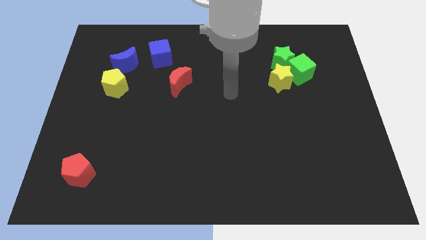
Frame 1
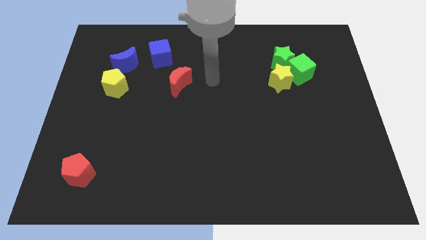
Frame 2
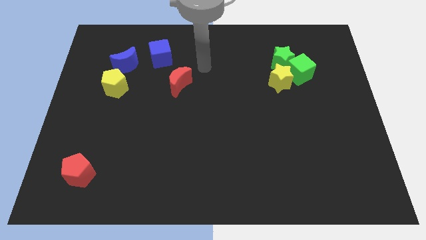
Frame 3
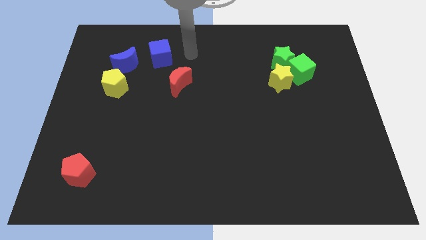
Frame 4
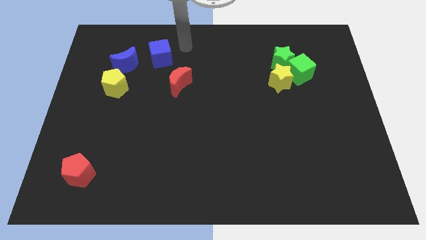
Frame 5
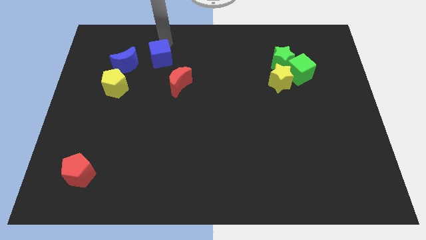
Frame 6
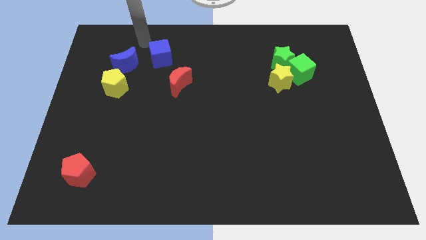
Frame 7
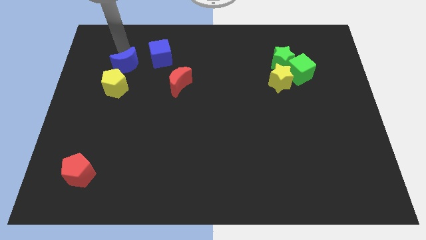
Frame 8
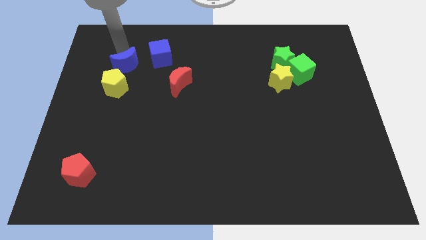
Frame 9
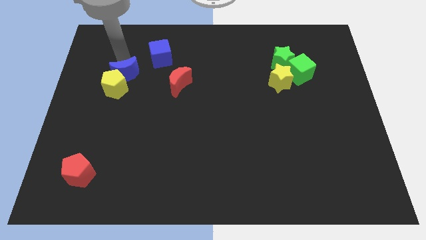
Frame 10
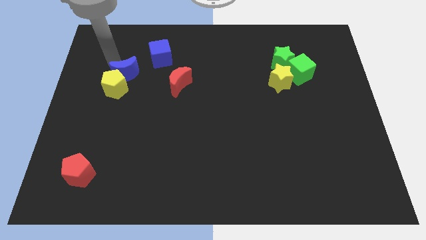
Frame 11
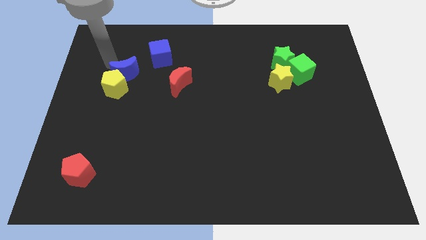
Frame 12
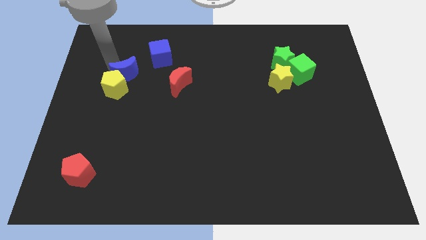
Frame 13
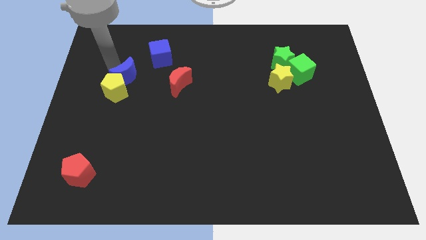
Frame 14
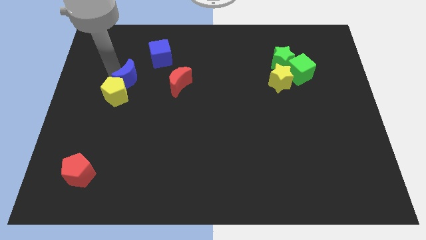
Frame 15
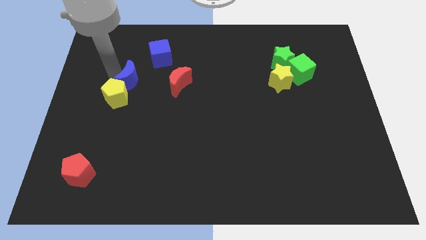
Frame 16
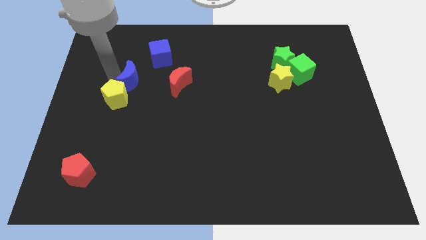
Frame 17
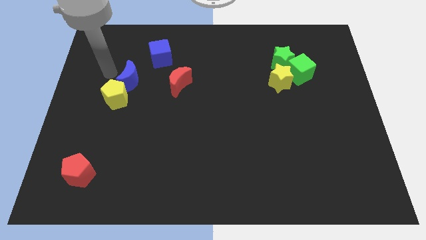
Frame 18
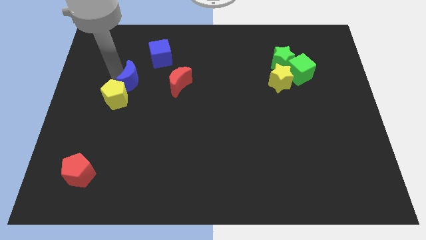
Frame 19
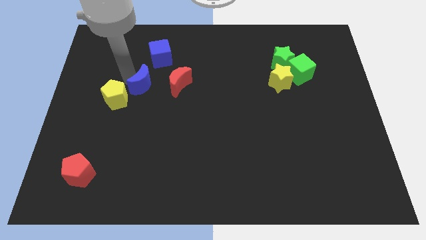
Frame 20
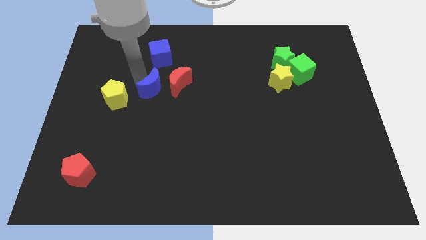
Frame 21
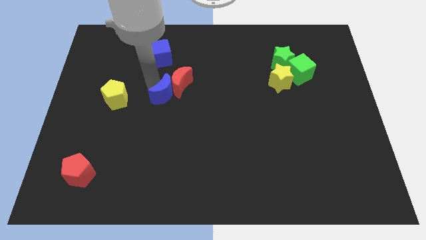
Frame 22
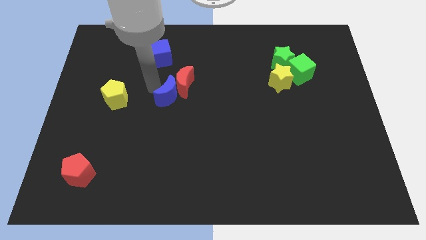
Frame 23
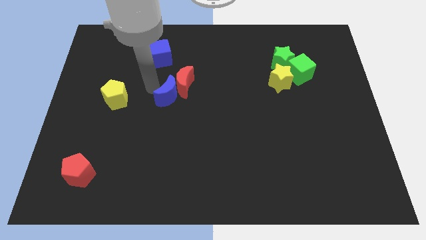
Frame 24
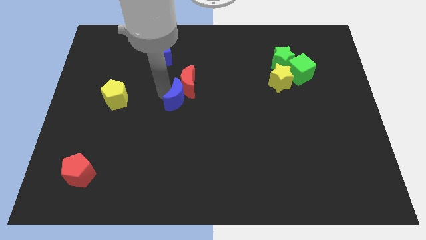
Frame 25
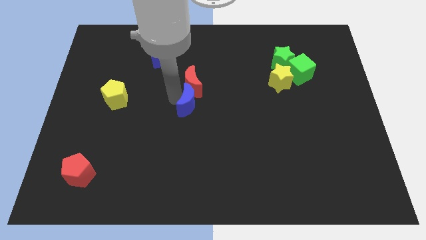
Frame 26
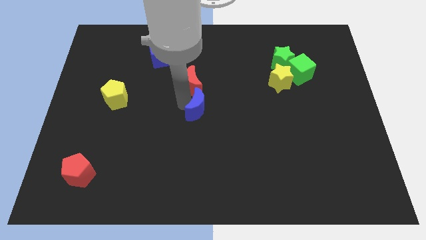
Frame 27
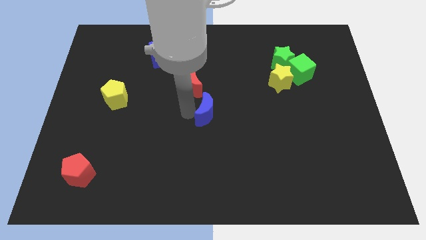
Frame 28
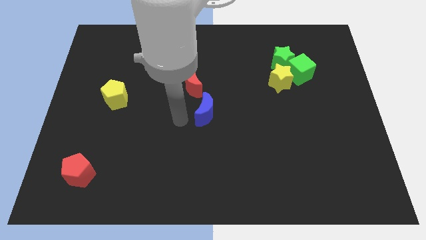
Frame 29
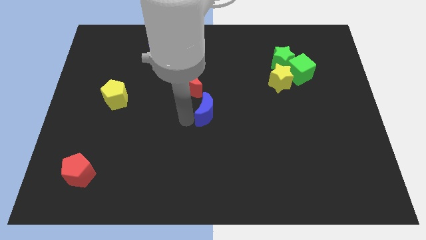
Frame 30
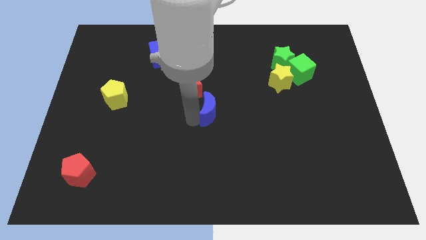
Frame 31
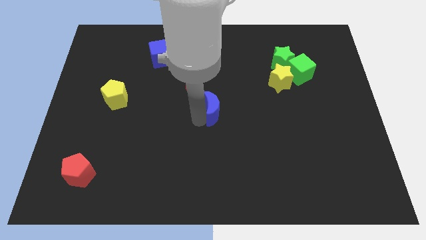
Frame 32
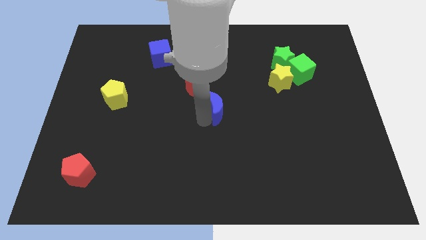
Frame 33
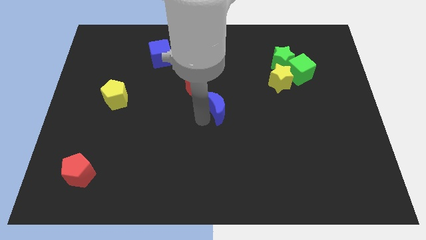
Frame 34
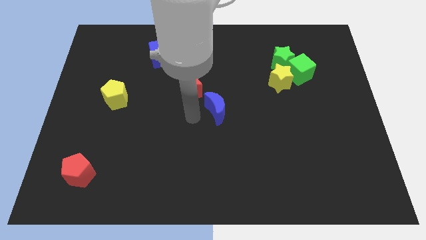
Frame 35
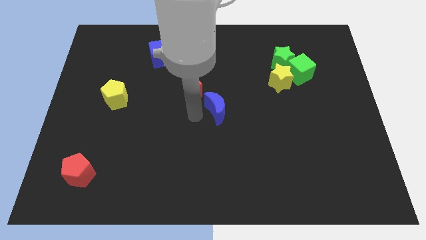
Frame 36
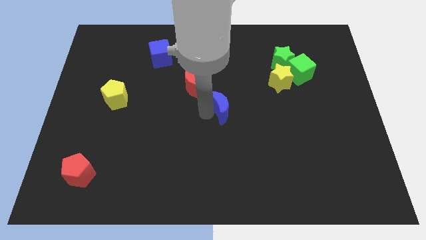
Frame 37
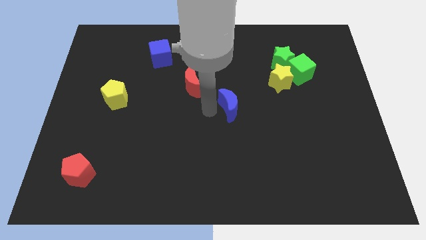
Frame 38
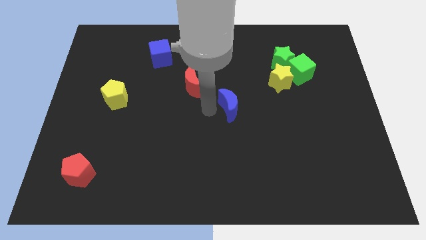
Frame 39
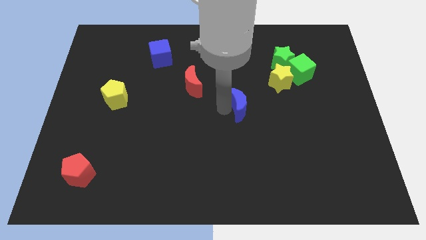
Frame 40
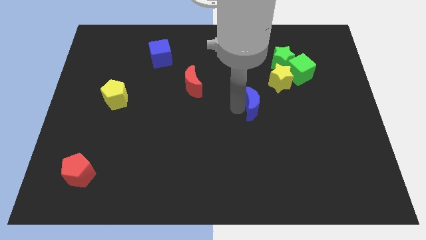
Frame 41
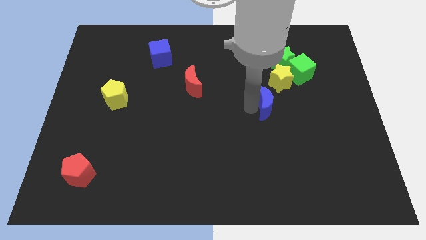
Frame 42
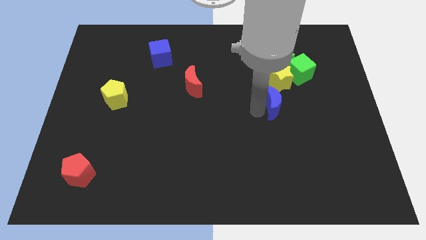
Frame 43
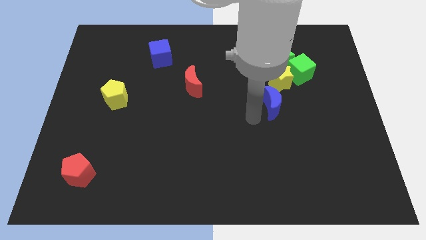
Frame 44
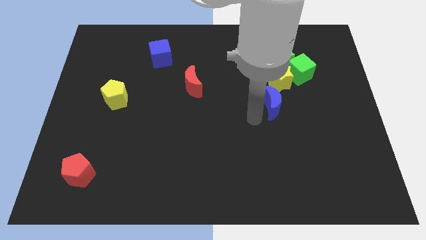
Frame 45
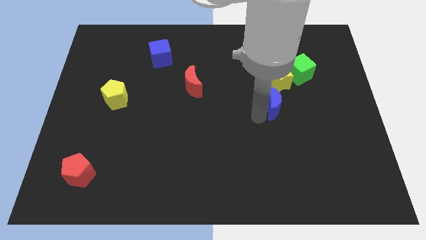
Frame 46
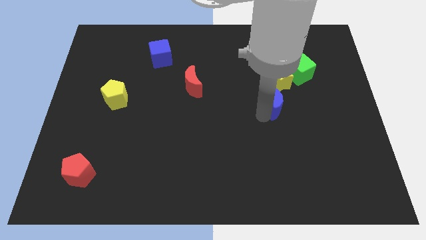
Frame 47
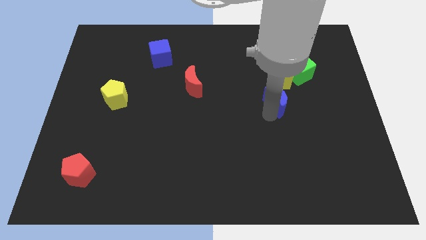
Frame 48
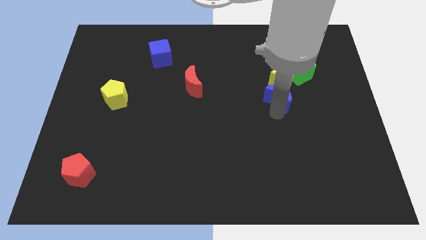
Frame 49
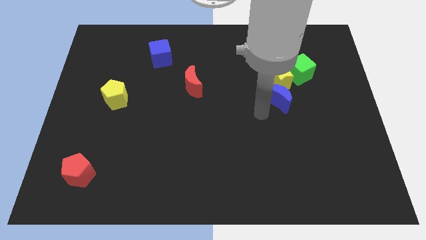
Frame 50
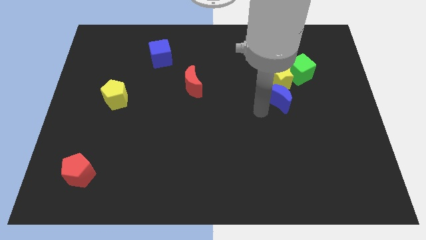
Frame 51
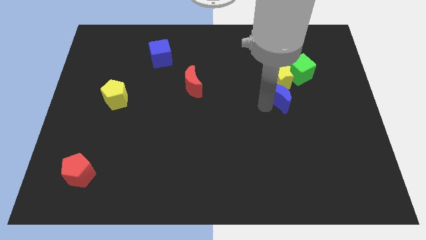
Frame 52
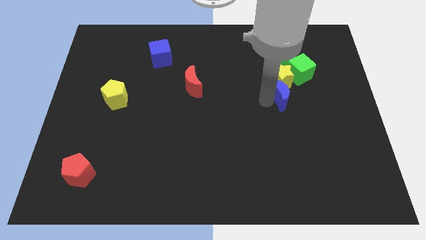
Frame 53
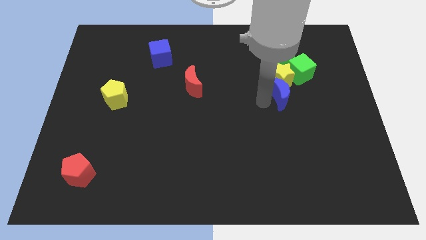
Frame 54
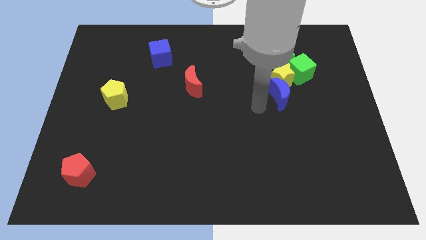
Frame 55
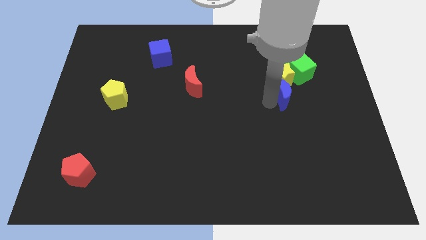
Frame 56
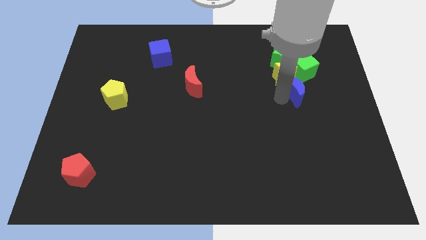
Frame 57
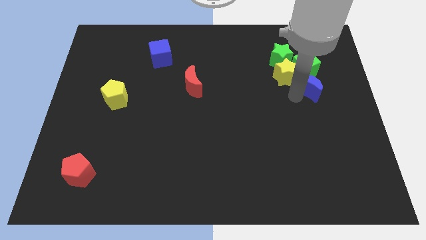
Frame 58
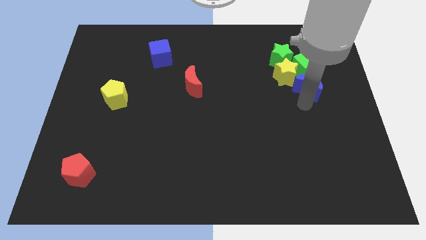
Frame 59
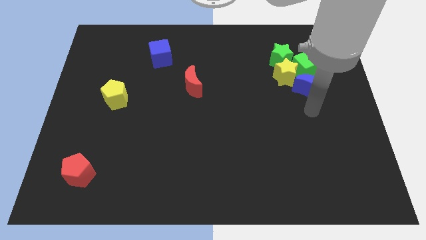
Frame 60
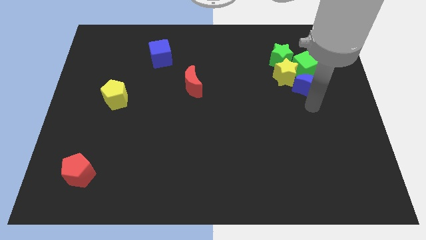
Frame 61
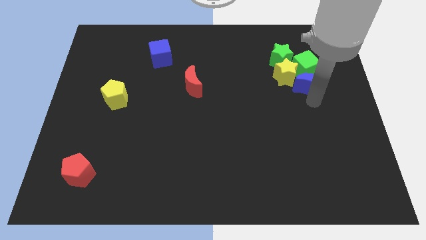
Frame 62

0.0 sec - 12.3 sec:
move the blue moon next to the green cube

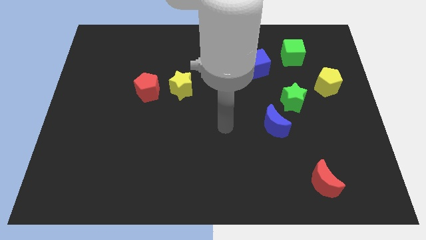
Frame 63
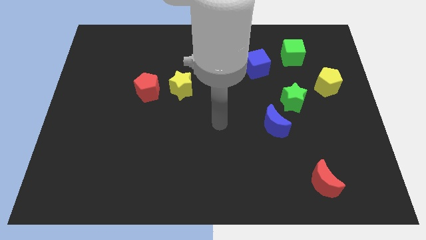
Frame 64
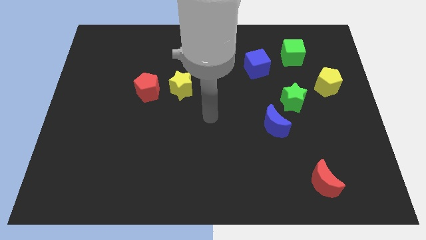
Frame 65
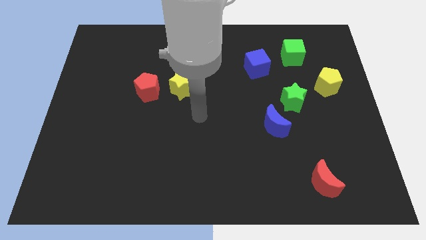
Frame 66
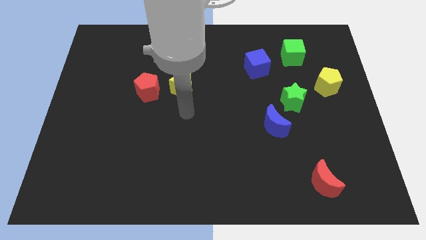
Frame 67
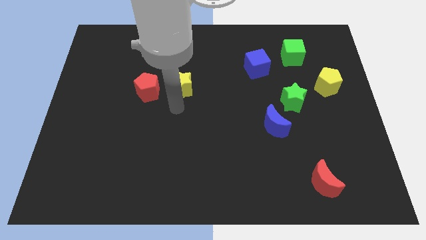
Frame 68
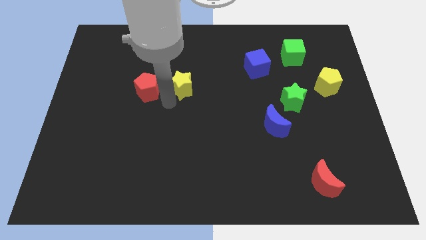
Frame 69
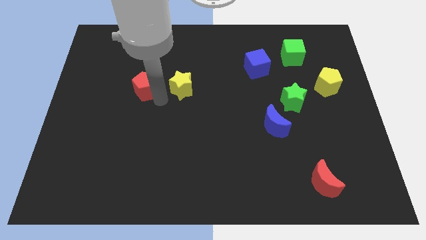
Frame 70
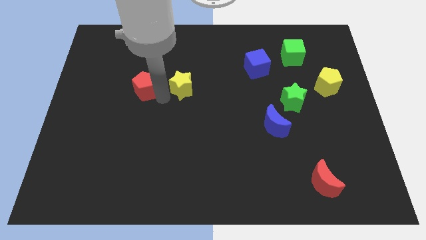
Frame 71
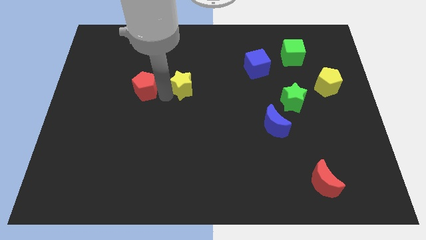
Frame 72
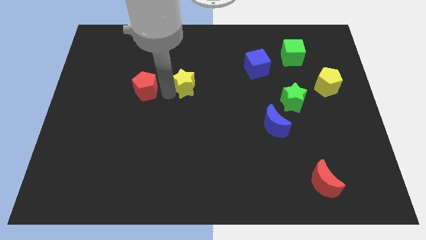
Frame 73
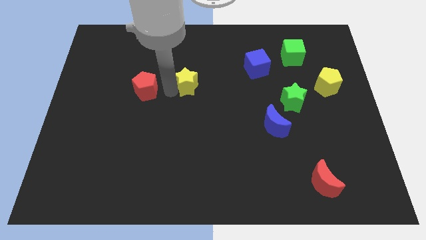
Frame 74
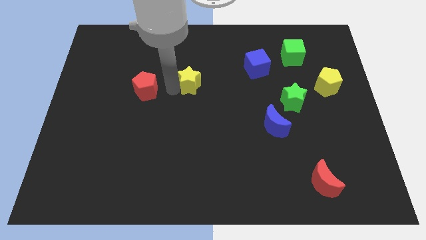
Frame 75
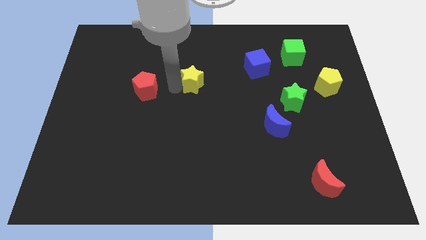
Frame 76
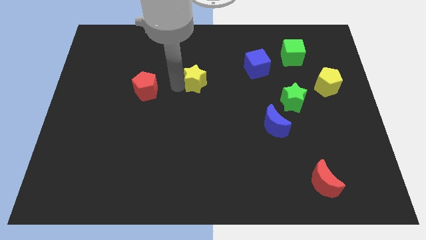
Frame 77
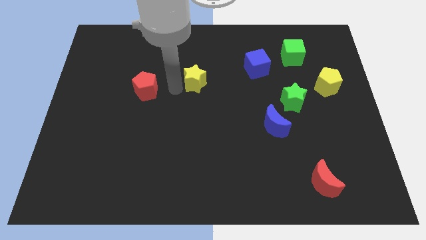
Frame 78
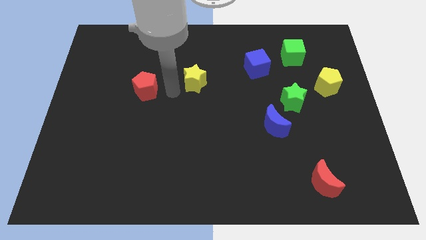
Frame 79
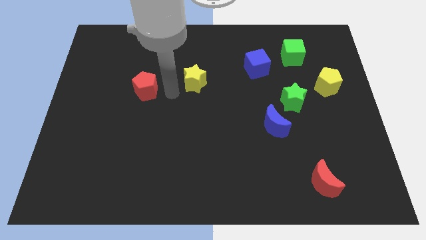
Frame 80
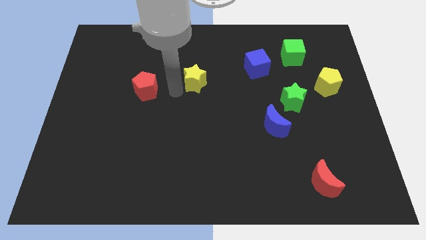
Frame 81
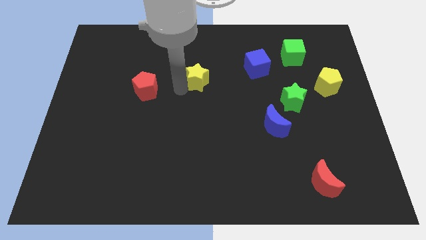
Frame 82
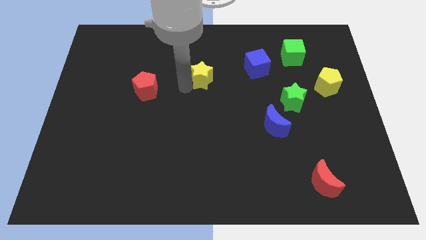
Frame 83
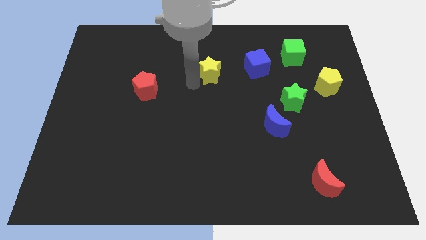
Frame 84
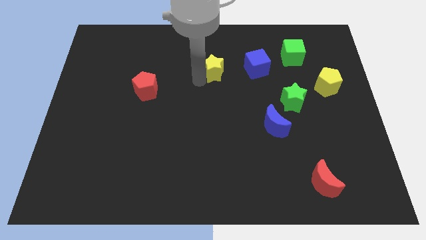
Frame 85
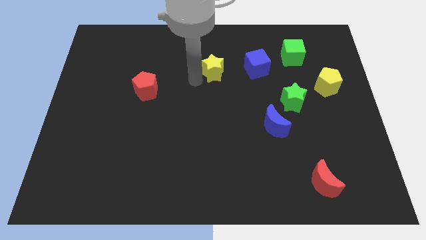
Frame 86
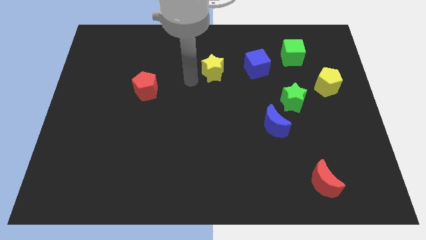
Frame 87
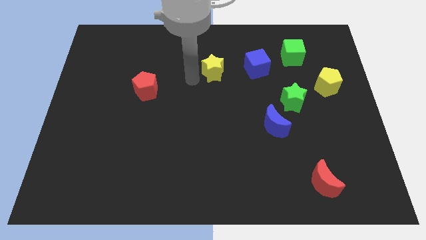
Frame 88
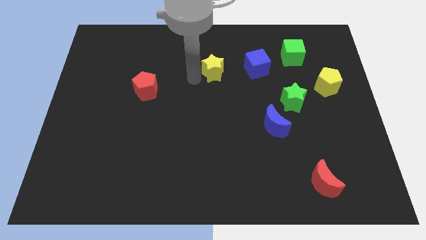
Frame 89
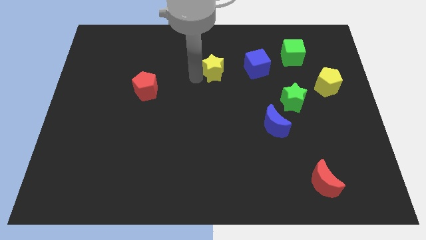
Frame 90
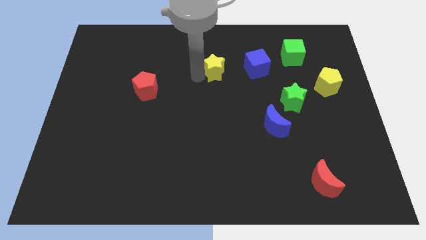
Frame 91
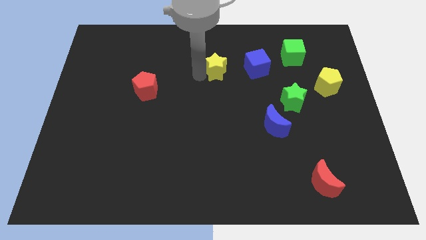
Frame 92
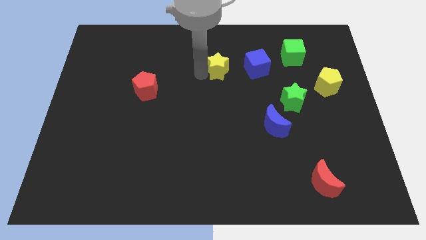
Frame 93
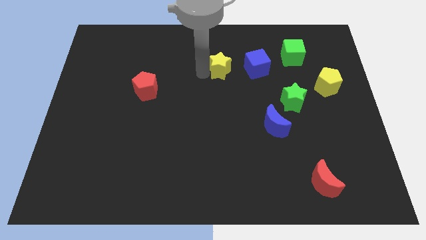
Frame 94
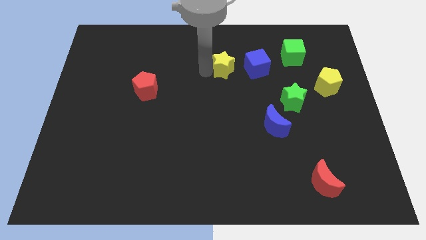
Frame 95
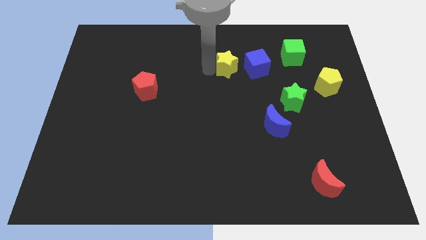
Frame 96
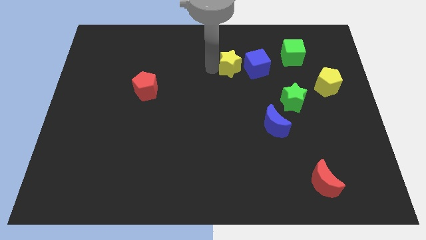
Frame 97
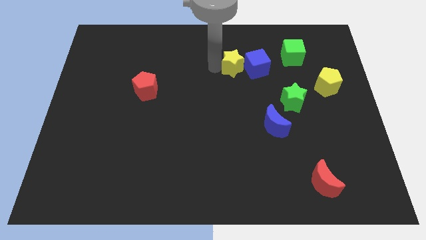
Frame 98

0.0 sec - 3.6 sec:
put the yellow star close to the blue cube
